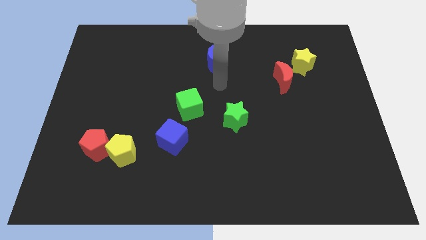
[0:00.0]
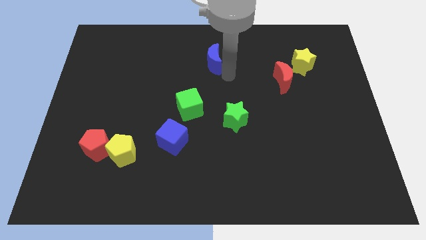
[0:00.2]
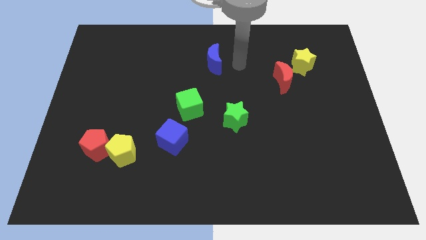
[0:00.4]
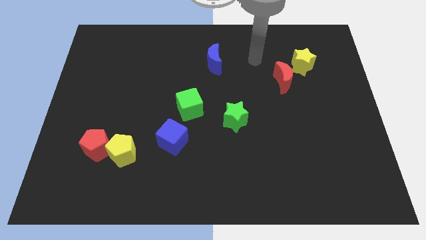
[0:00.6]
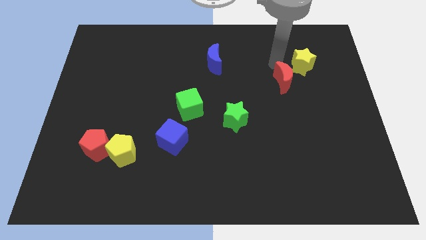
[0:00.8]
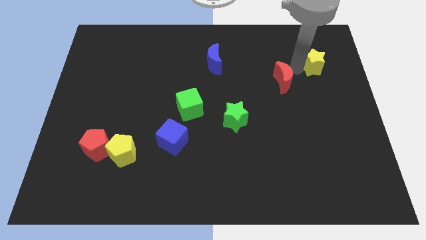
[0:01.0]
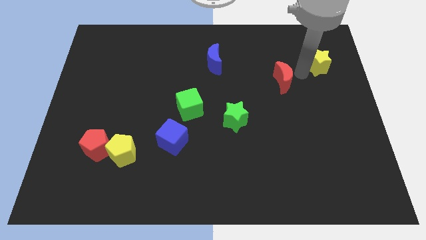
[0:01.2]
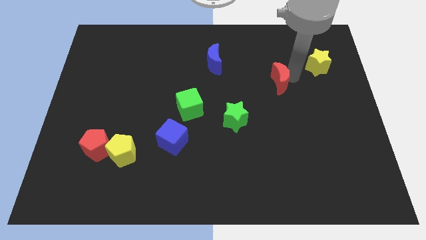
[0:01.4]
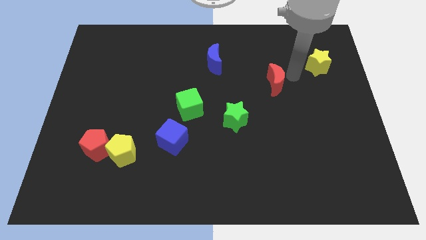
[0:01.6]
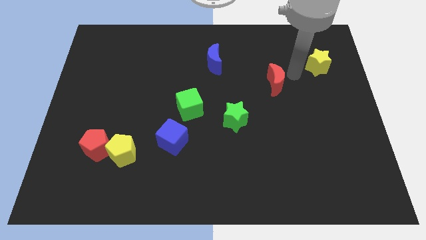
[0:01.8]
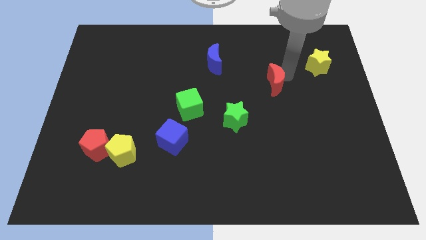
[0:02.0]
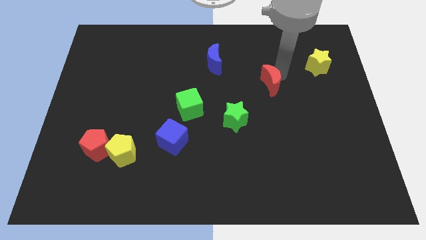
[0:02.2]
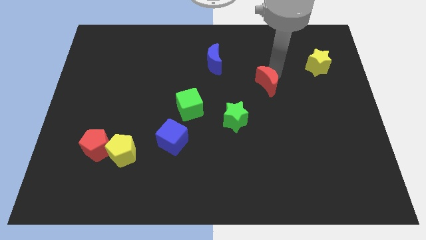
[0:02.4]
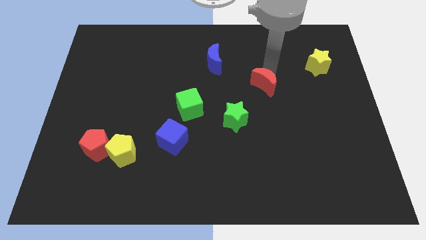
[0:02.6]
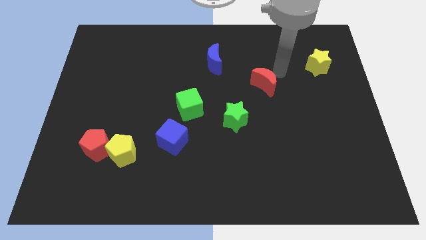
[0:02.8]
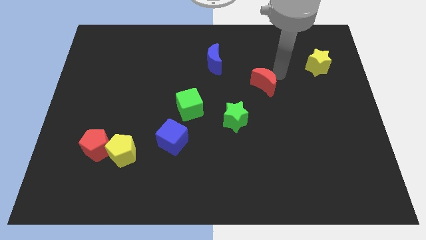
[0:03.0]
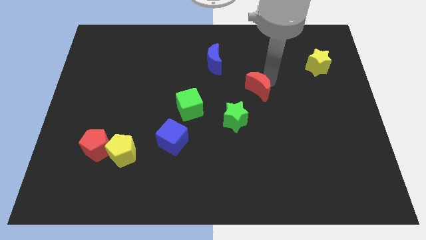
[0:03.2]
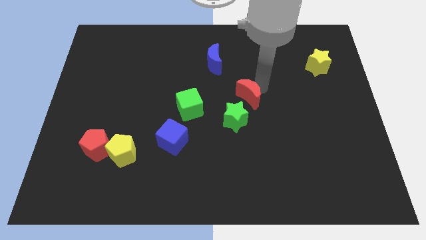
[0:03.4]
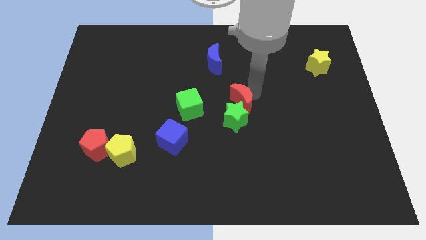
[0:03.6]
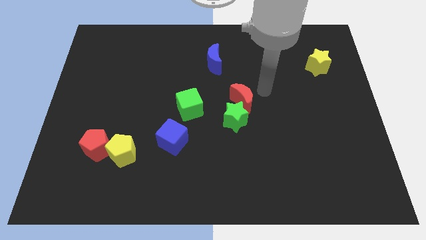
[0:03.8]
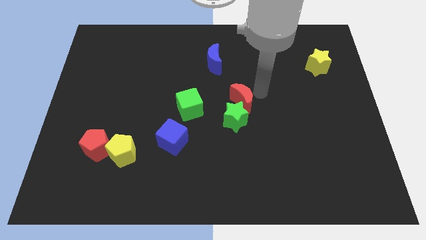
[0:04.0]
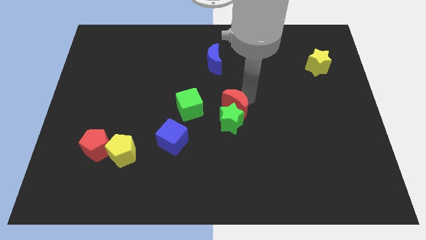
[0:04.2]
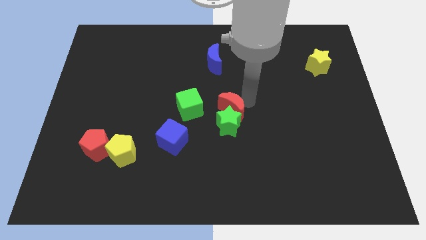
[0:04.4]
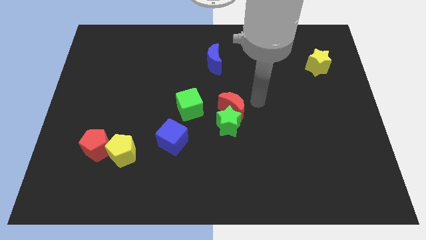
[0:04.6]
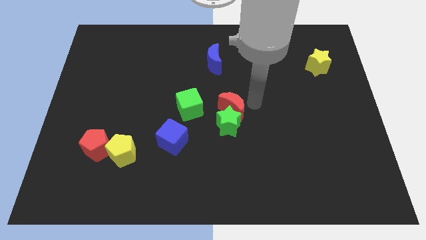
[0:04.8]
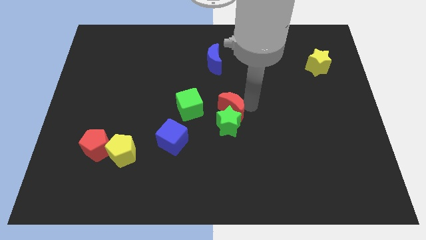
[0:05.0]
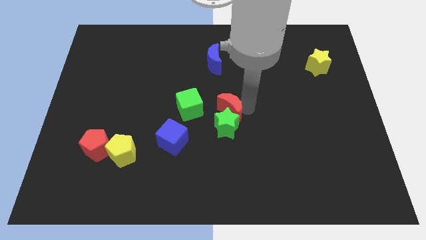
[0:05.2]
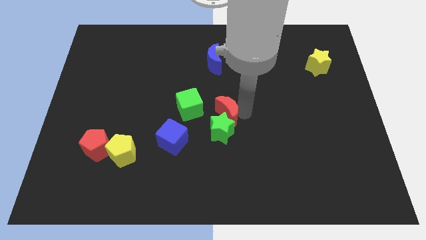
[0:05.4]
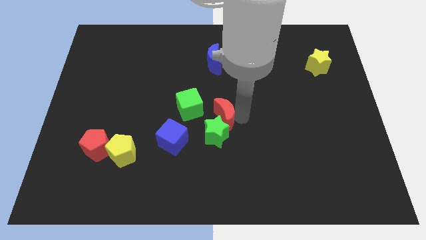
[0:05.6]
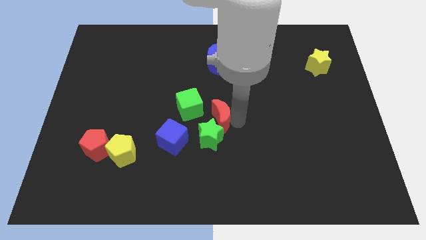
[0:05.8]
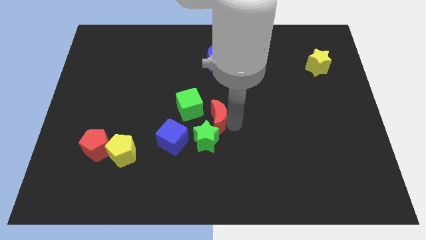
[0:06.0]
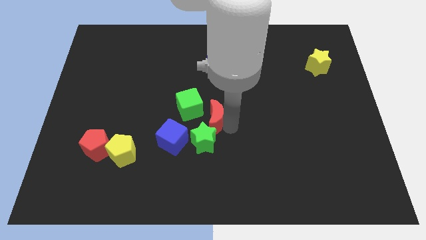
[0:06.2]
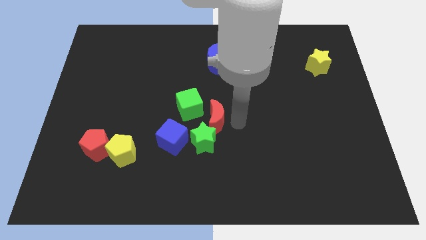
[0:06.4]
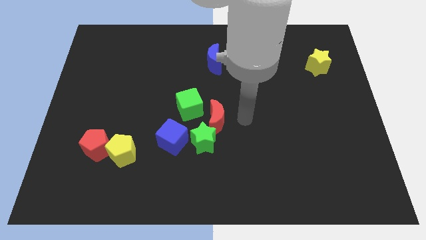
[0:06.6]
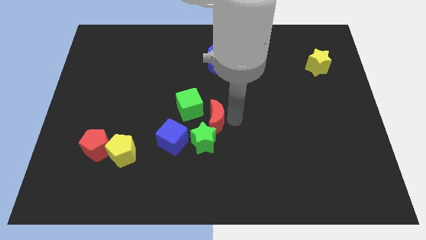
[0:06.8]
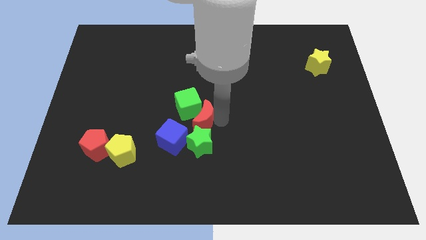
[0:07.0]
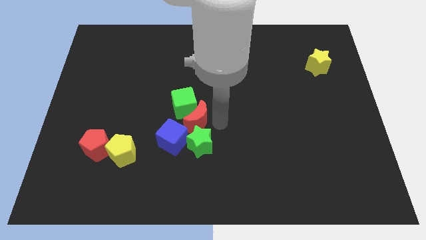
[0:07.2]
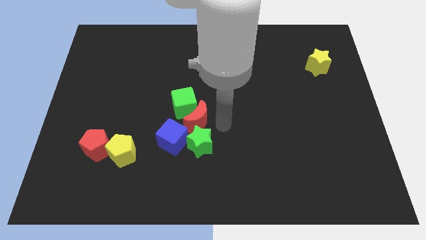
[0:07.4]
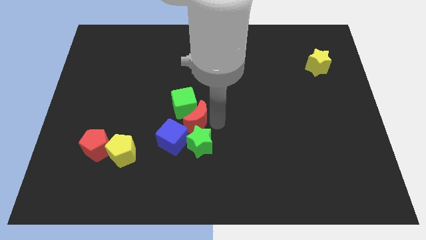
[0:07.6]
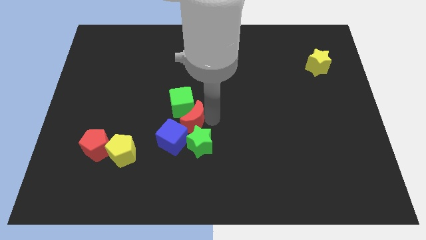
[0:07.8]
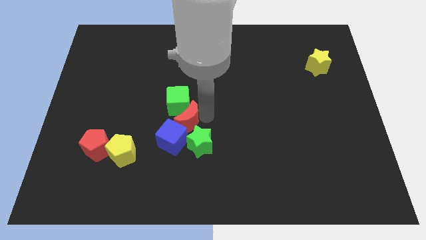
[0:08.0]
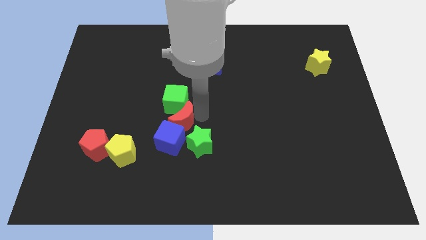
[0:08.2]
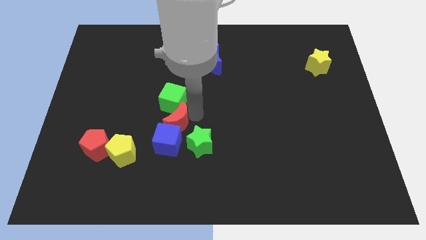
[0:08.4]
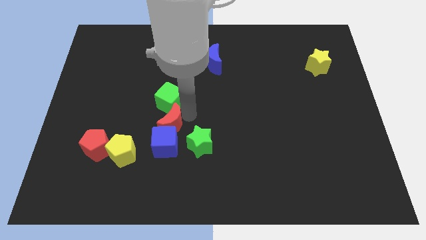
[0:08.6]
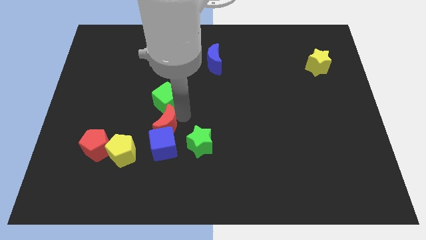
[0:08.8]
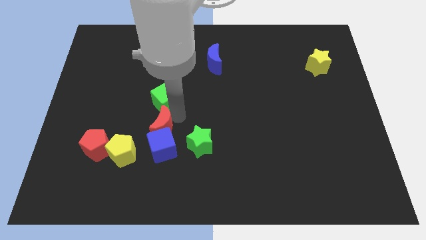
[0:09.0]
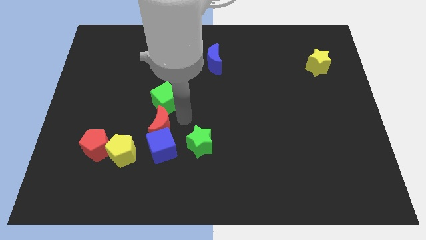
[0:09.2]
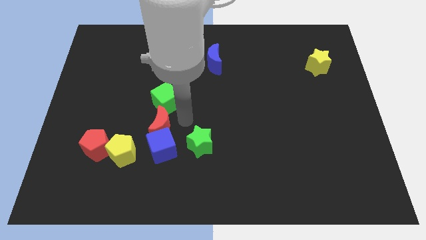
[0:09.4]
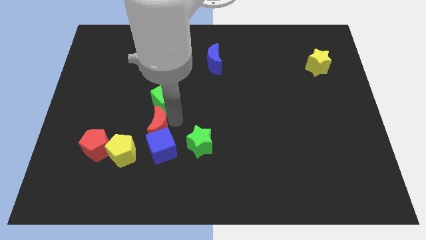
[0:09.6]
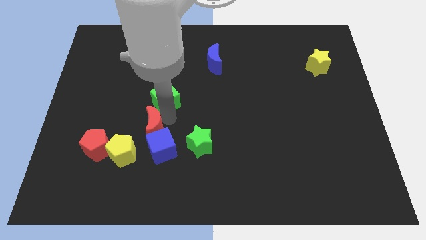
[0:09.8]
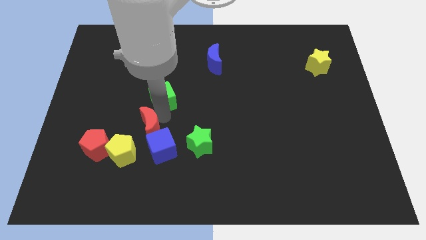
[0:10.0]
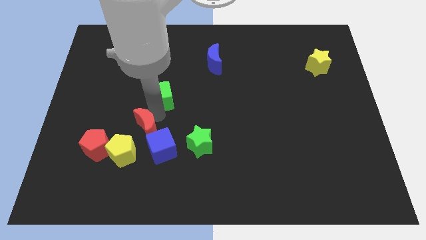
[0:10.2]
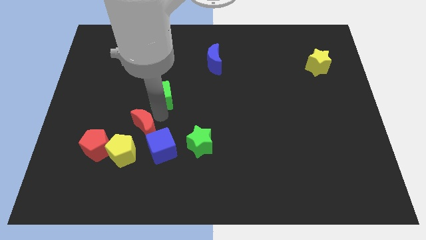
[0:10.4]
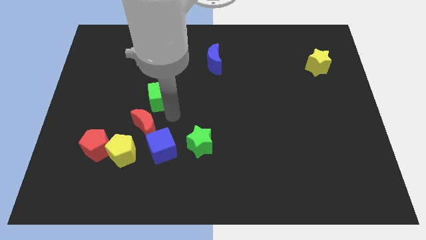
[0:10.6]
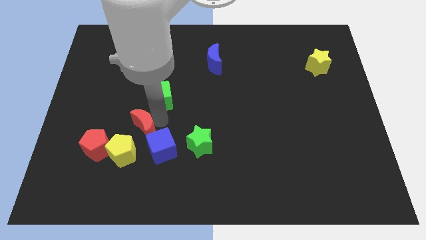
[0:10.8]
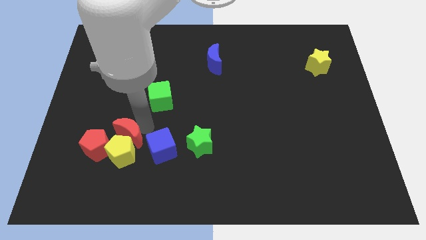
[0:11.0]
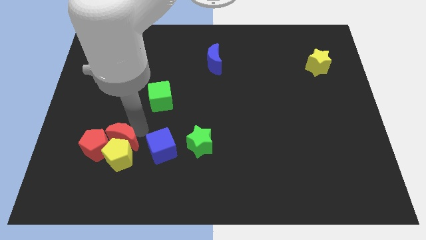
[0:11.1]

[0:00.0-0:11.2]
move the red moon next to the red pentagon

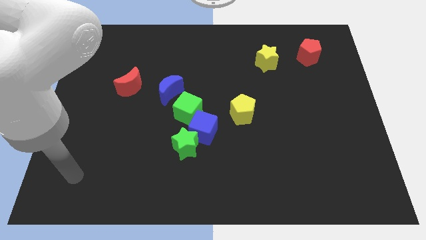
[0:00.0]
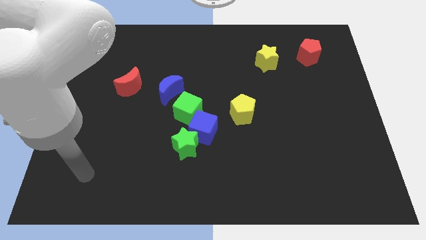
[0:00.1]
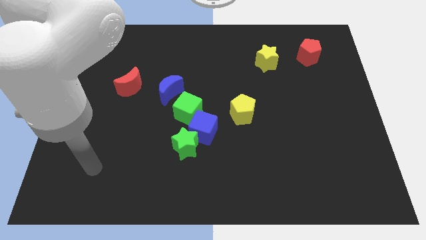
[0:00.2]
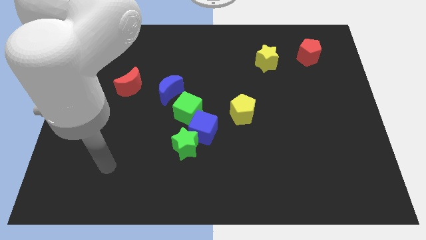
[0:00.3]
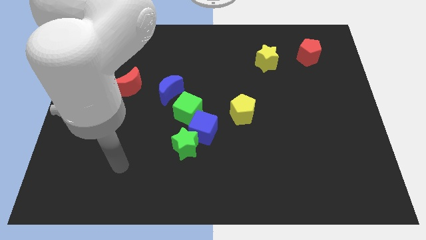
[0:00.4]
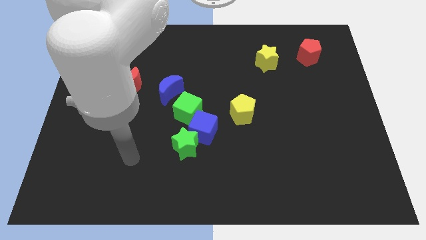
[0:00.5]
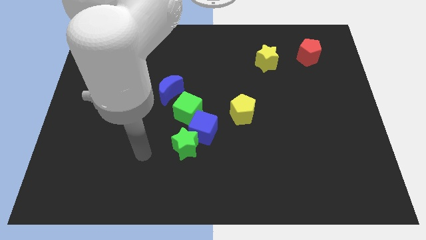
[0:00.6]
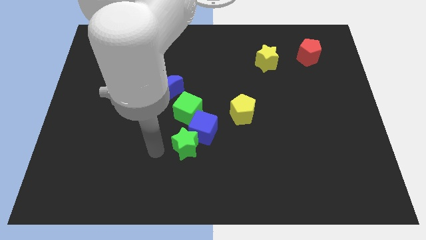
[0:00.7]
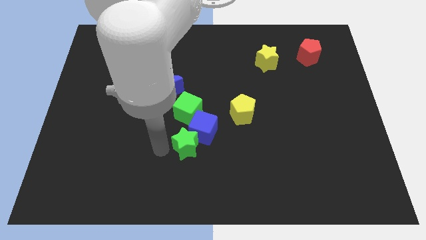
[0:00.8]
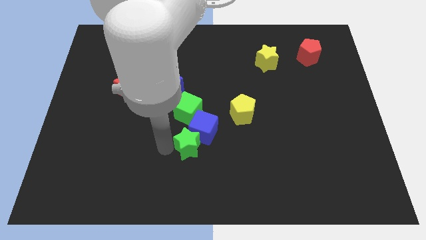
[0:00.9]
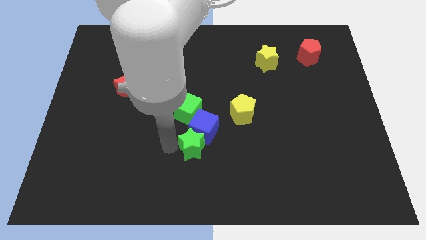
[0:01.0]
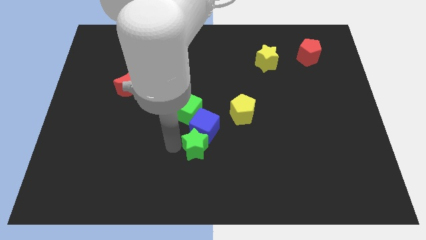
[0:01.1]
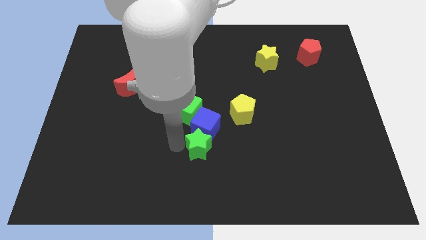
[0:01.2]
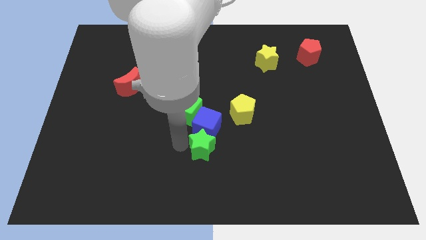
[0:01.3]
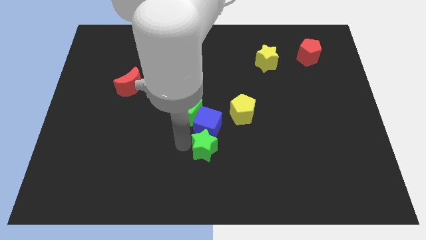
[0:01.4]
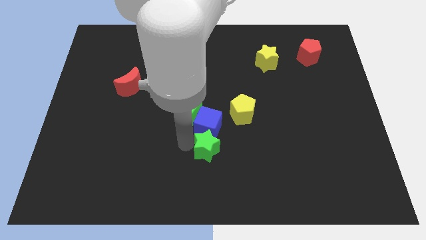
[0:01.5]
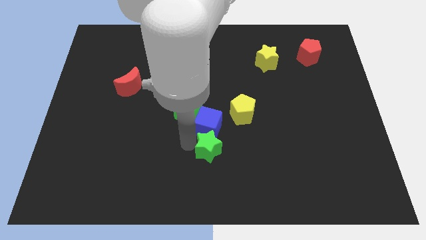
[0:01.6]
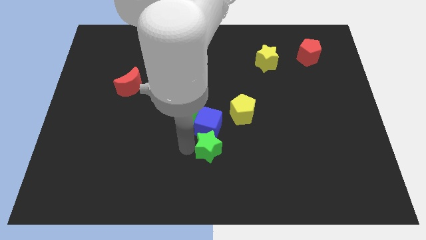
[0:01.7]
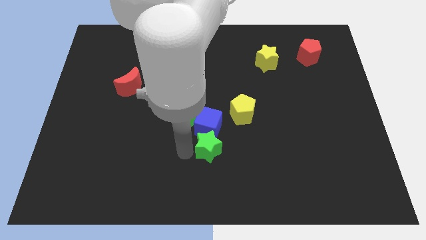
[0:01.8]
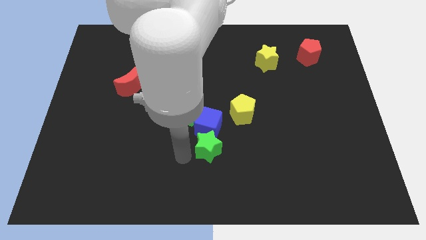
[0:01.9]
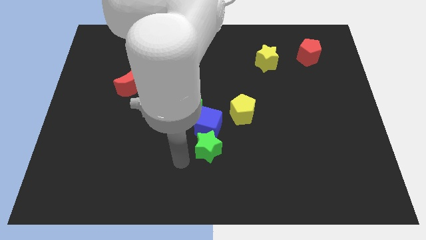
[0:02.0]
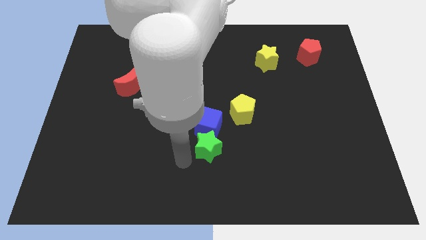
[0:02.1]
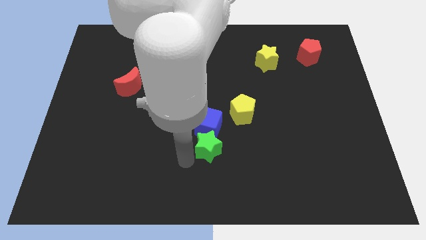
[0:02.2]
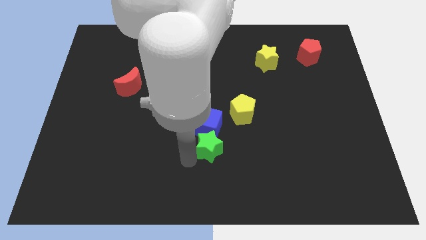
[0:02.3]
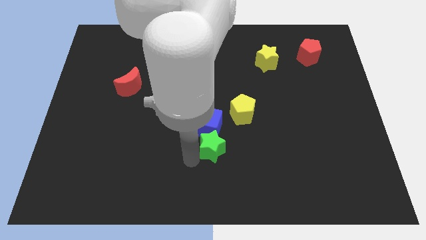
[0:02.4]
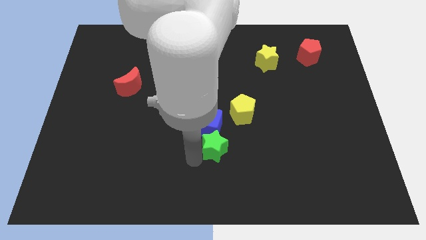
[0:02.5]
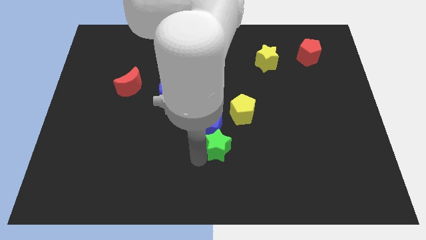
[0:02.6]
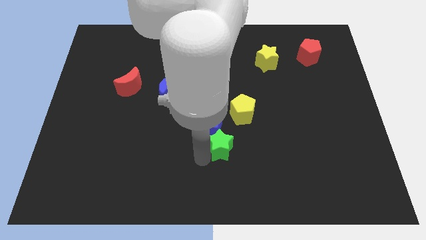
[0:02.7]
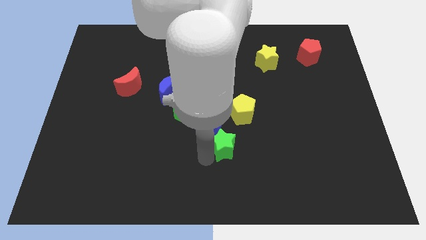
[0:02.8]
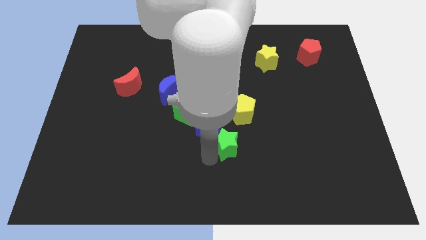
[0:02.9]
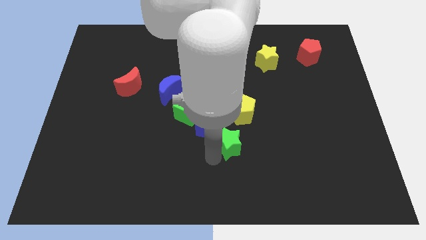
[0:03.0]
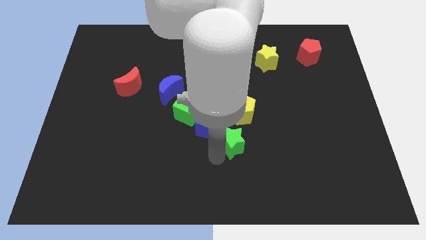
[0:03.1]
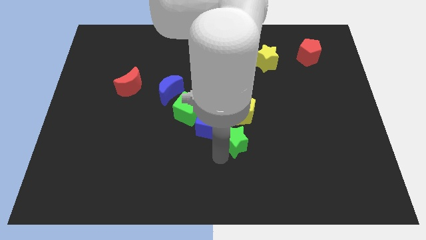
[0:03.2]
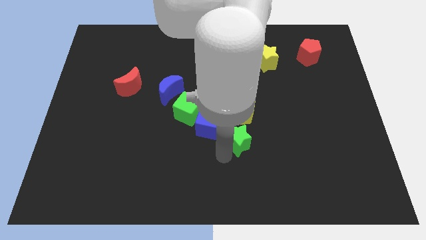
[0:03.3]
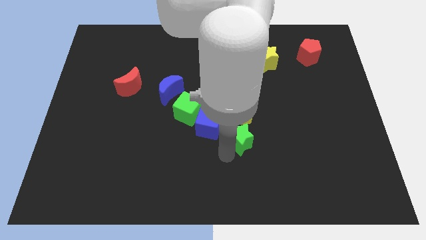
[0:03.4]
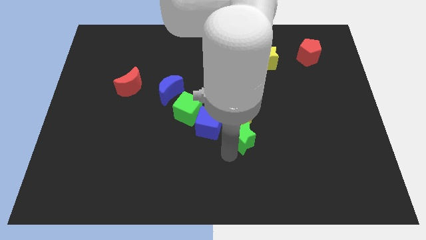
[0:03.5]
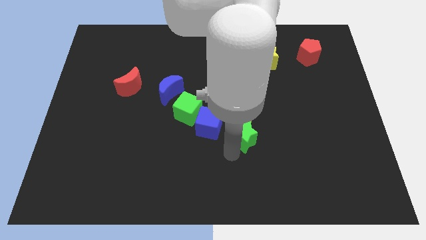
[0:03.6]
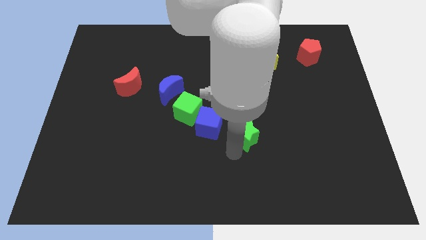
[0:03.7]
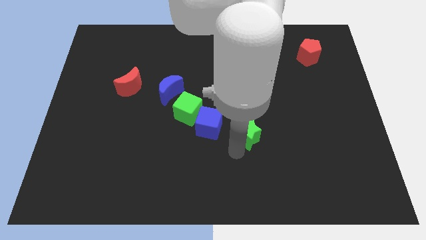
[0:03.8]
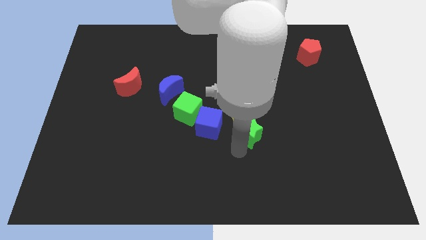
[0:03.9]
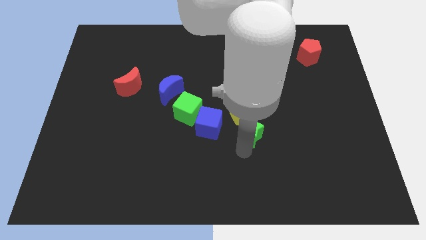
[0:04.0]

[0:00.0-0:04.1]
move the green star towards the yellow pentagon
